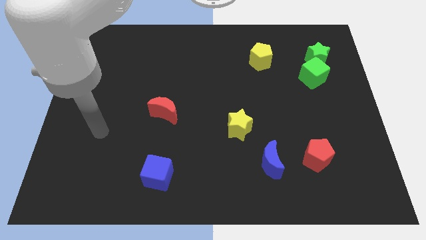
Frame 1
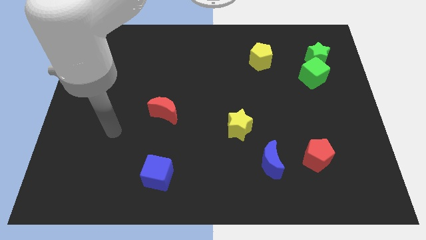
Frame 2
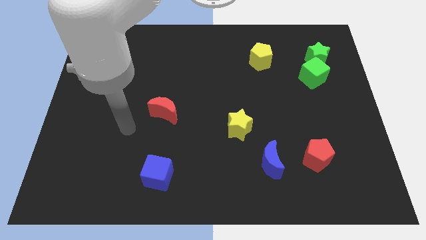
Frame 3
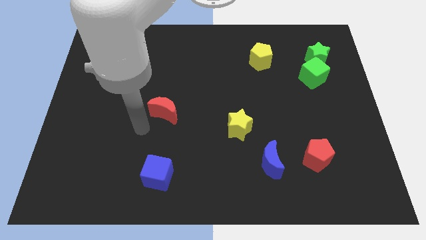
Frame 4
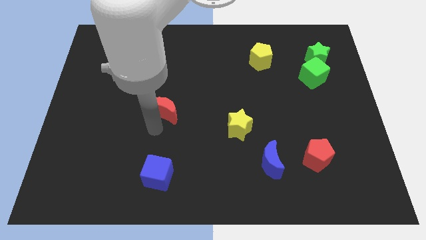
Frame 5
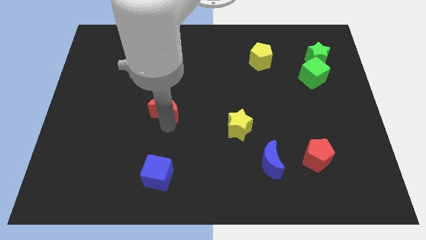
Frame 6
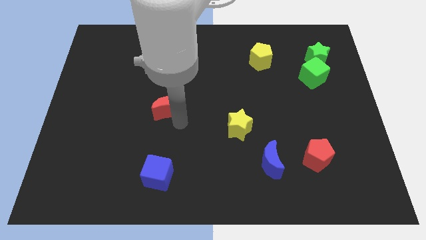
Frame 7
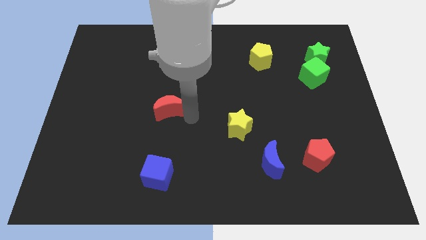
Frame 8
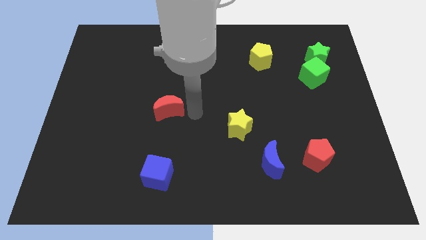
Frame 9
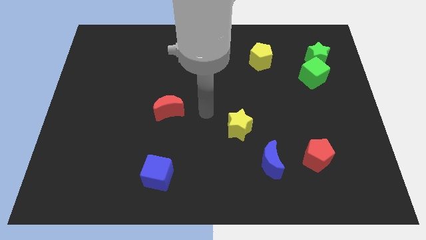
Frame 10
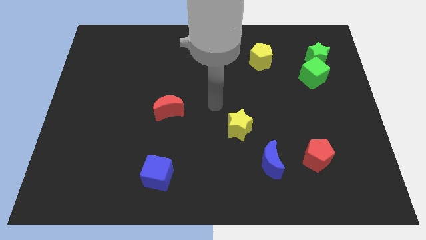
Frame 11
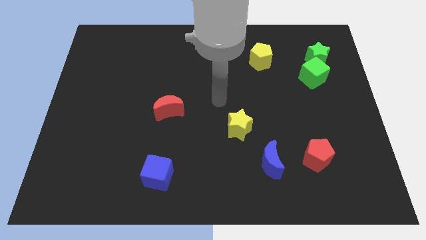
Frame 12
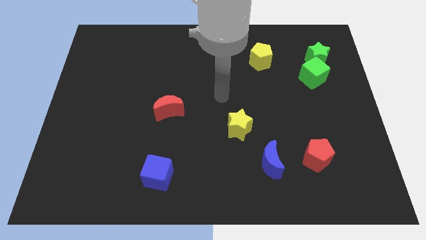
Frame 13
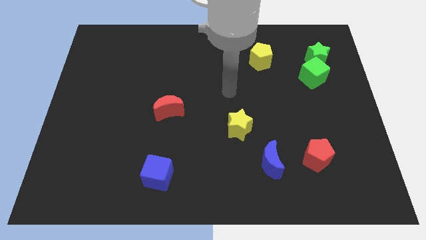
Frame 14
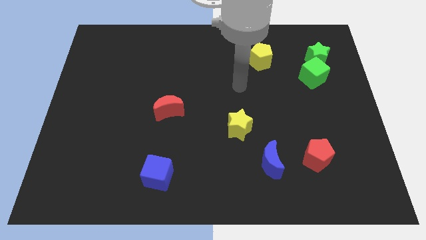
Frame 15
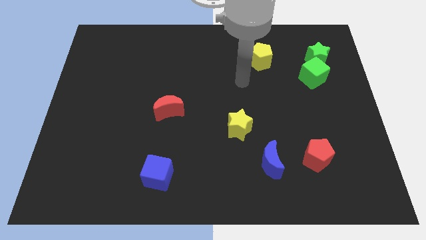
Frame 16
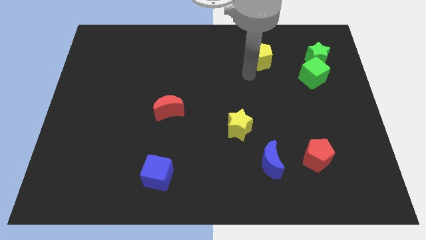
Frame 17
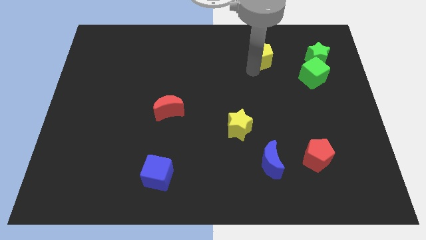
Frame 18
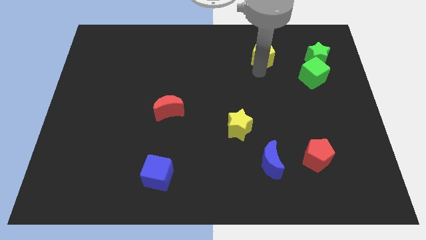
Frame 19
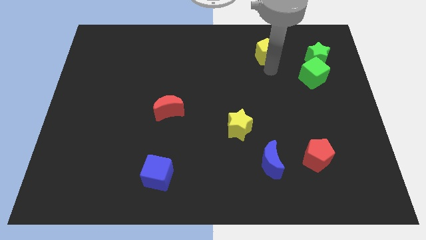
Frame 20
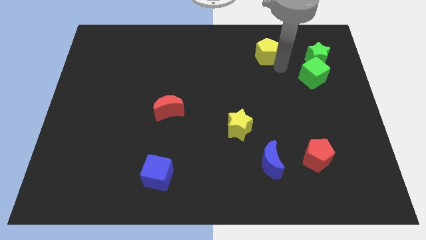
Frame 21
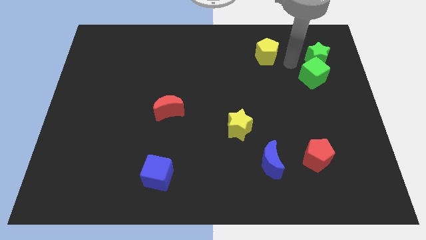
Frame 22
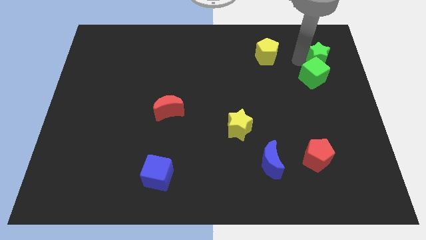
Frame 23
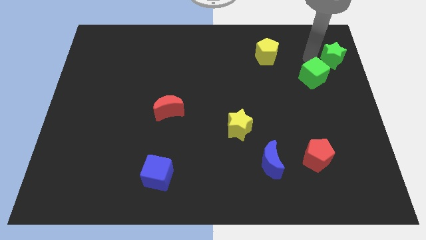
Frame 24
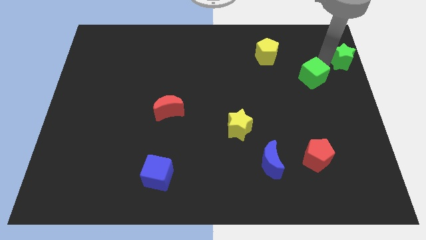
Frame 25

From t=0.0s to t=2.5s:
separate the green cube from the green star

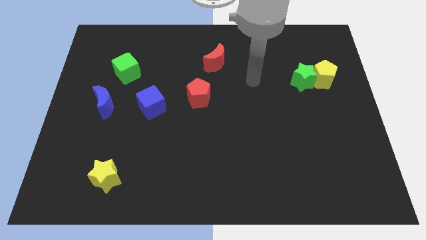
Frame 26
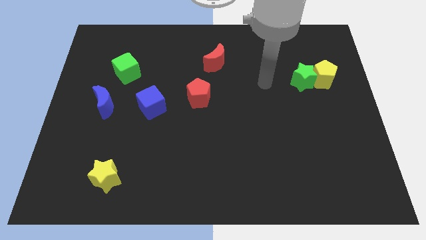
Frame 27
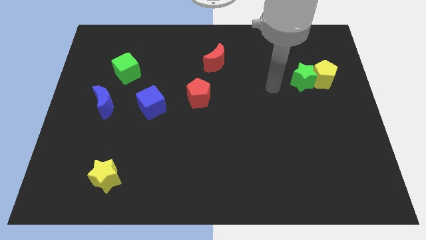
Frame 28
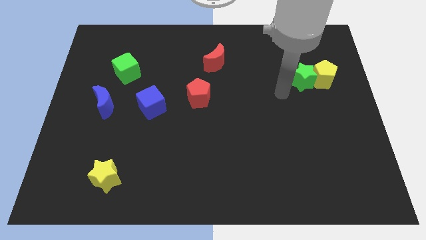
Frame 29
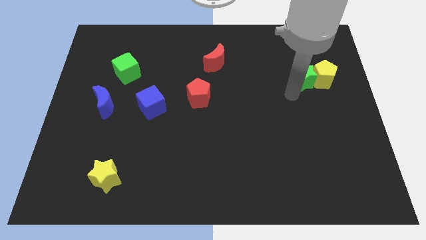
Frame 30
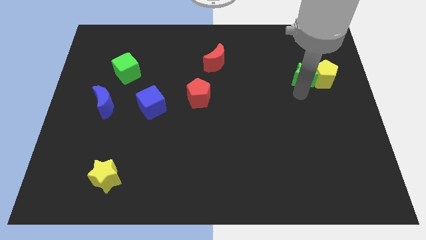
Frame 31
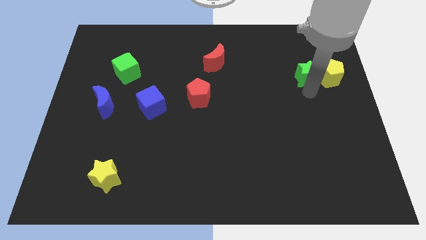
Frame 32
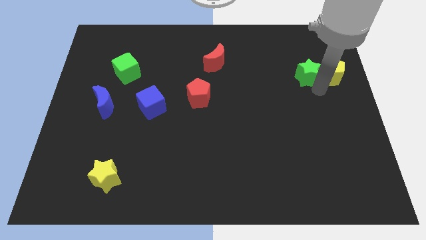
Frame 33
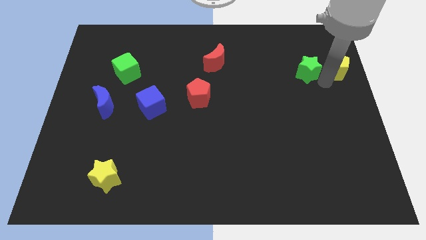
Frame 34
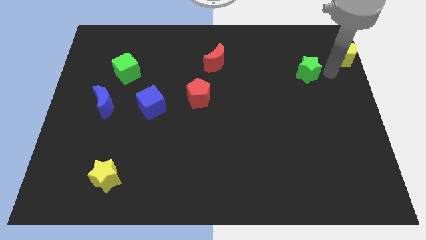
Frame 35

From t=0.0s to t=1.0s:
pull the green star apart from the yellow pentagon

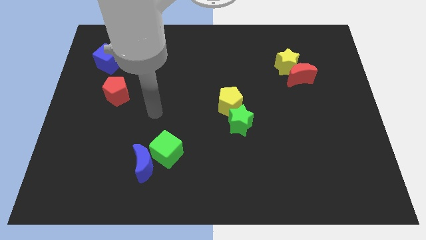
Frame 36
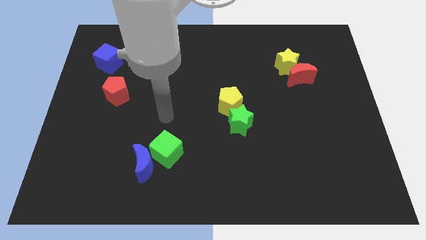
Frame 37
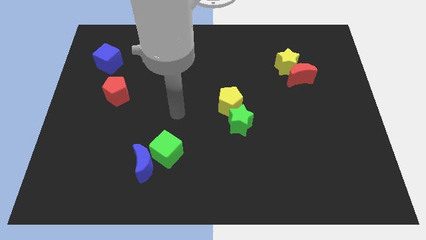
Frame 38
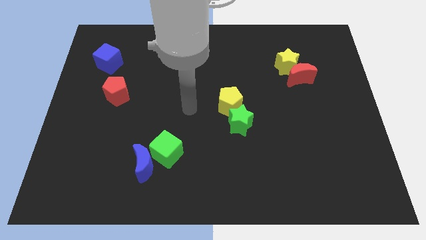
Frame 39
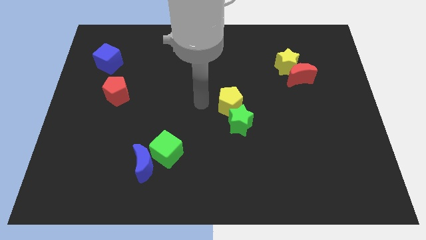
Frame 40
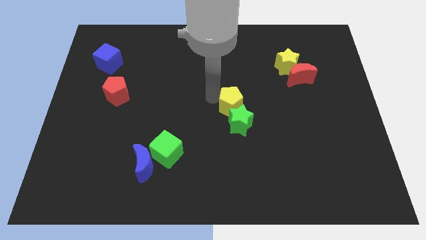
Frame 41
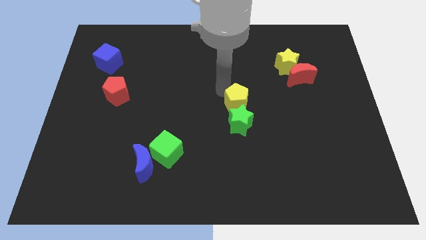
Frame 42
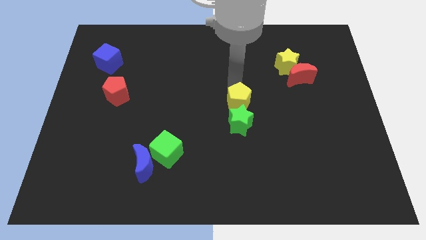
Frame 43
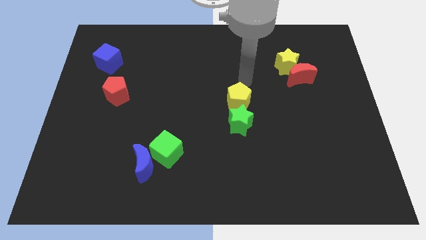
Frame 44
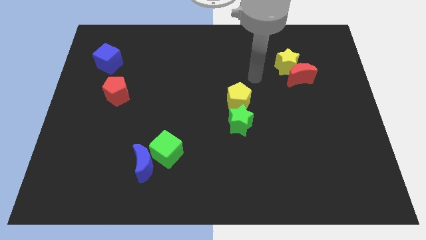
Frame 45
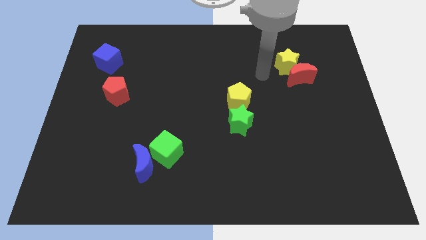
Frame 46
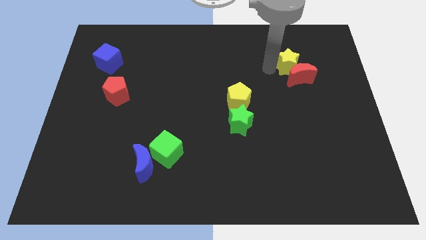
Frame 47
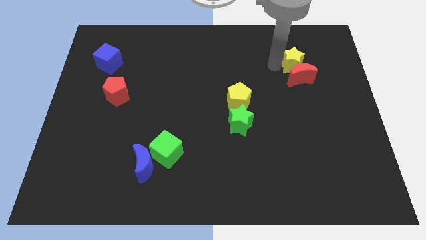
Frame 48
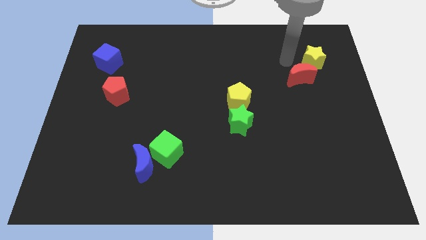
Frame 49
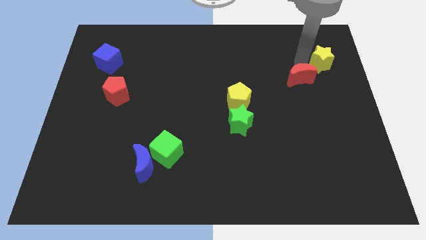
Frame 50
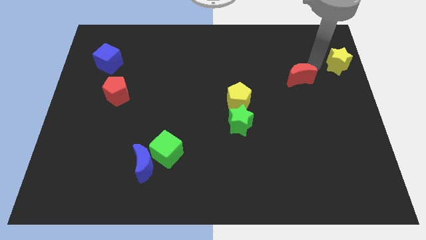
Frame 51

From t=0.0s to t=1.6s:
move the red moon away from the yellow star

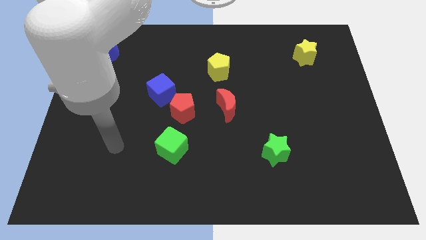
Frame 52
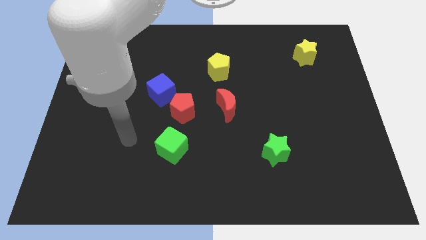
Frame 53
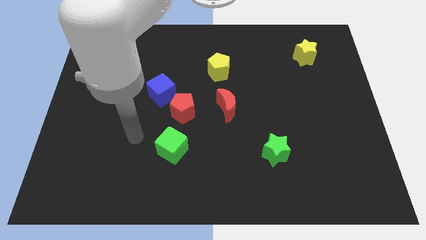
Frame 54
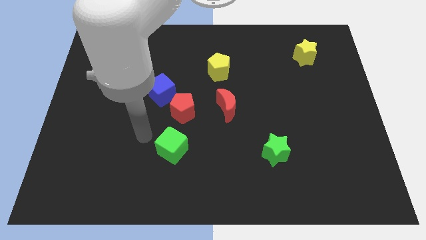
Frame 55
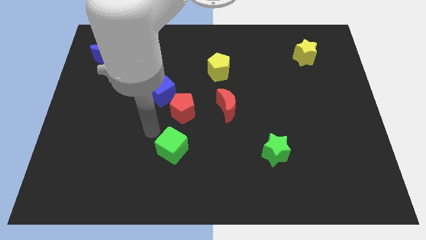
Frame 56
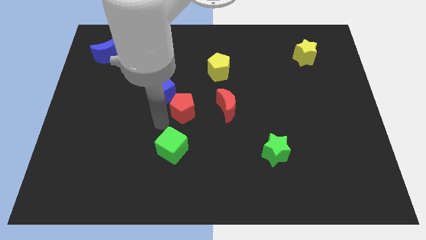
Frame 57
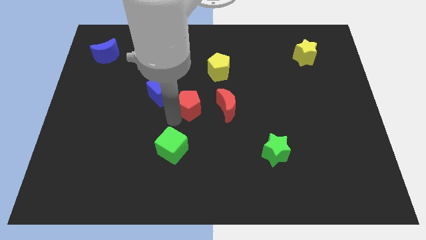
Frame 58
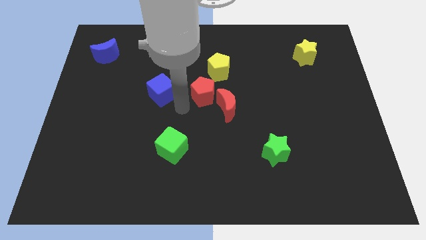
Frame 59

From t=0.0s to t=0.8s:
move the blue cube away from the red pentagon

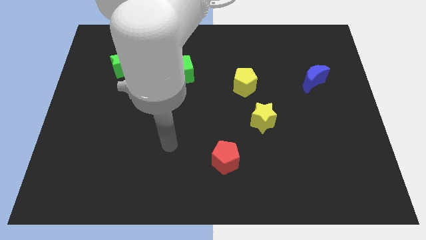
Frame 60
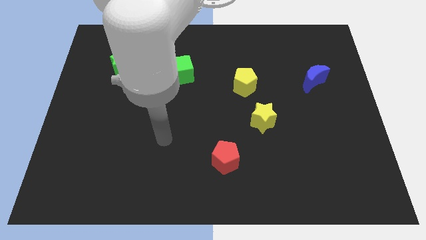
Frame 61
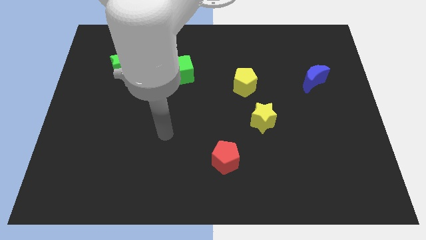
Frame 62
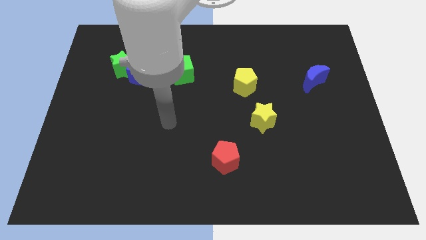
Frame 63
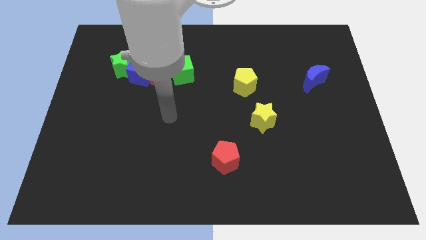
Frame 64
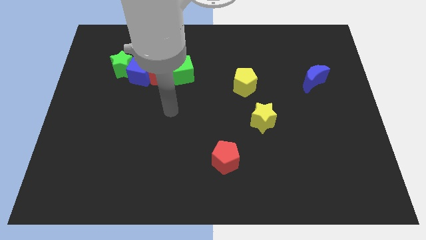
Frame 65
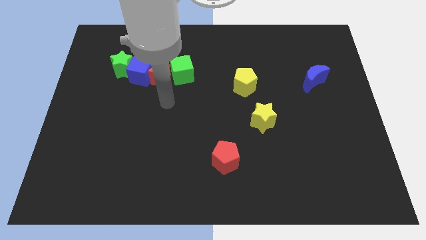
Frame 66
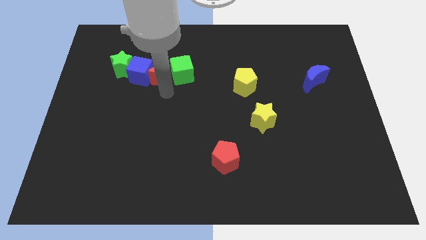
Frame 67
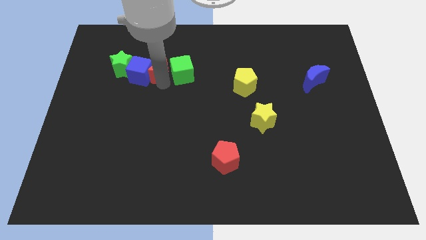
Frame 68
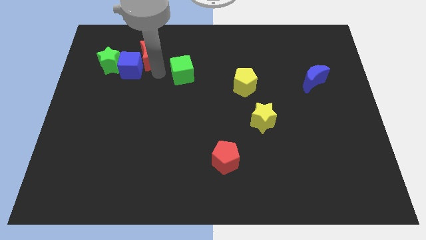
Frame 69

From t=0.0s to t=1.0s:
pull the green cube apart from the red moon

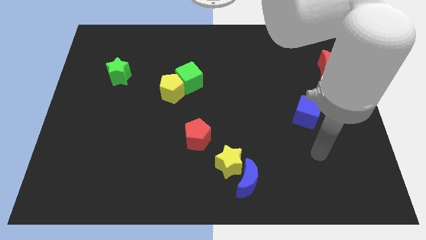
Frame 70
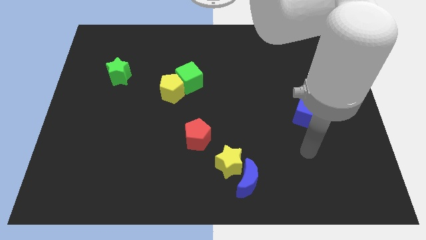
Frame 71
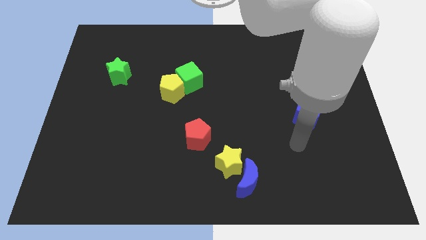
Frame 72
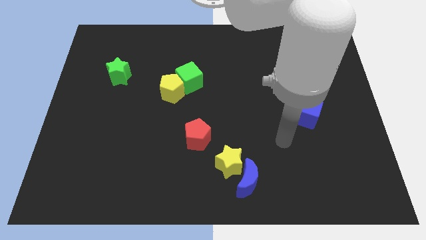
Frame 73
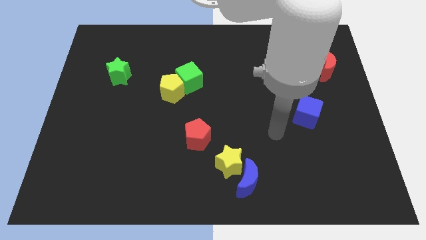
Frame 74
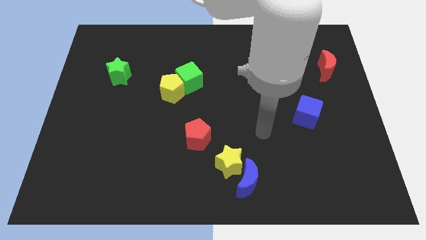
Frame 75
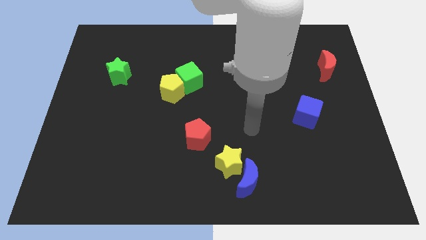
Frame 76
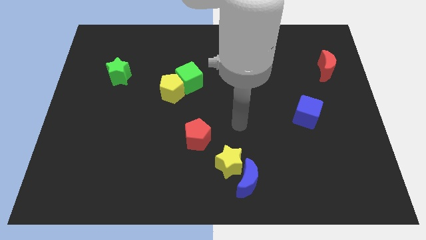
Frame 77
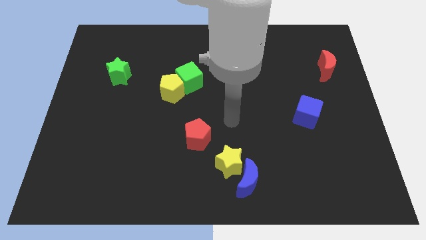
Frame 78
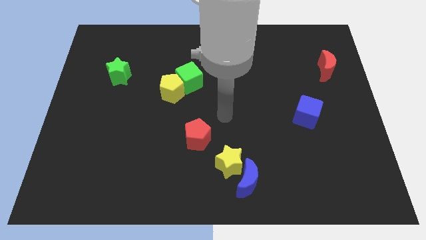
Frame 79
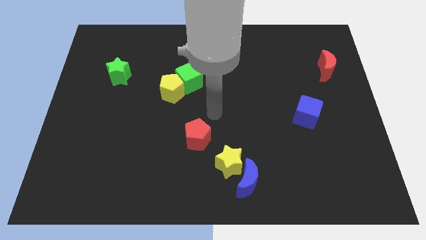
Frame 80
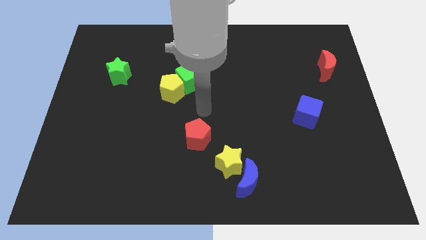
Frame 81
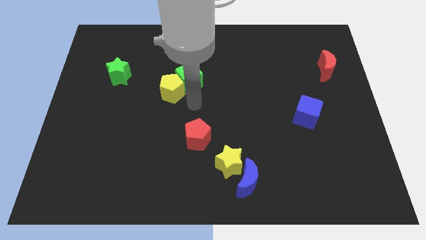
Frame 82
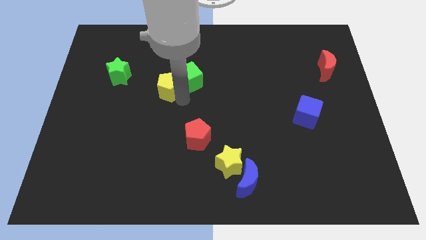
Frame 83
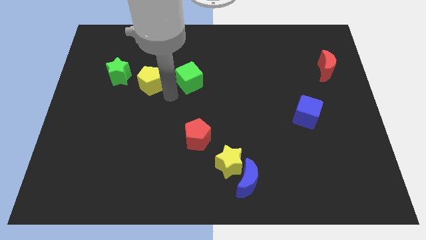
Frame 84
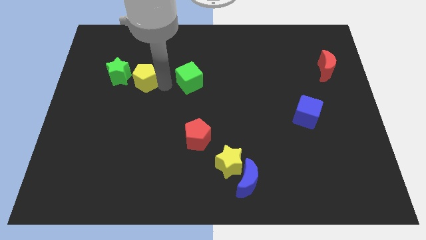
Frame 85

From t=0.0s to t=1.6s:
separate the green cube from the yellow pentagon

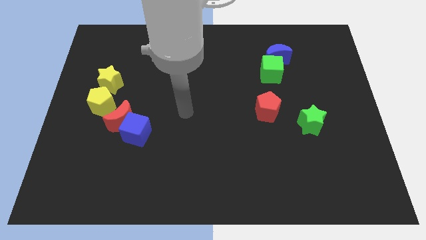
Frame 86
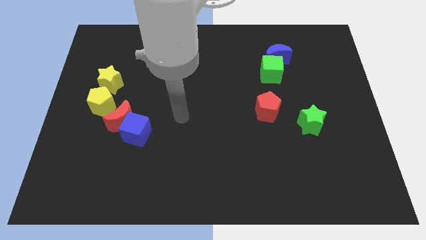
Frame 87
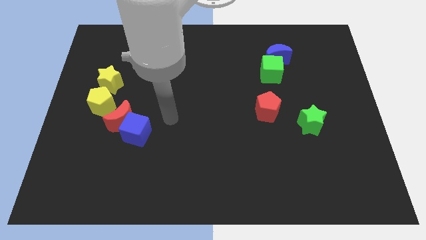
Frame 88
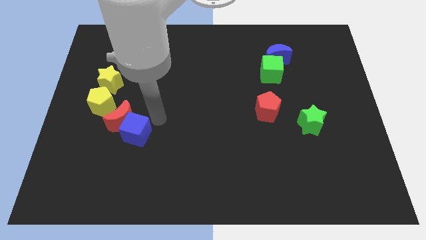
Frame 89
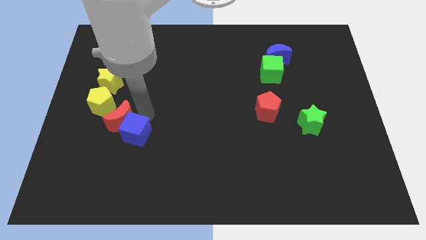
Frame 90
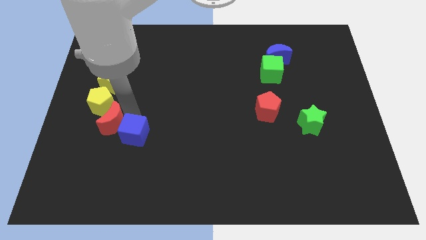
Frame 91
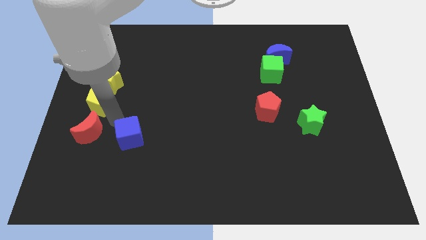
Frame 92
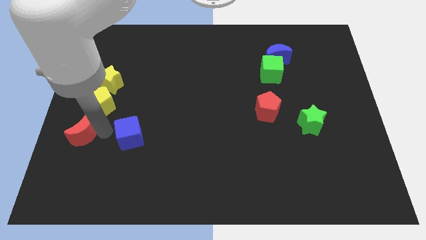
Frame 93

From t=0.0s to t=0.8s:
move the blue cube away from the red moon
